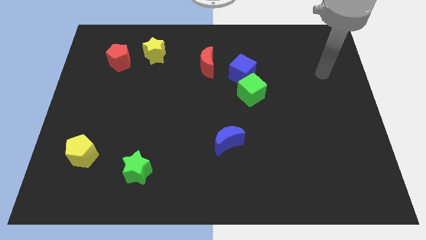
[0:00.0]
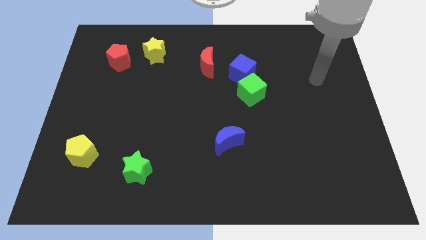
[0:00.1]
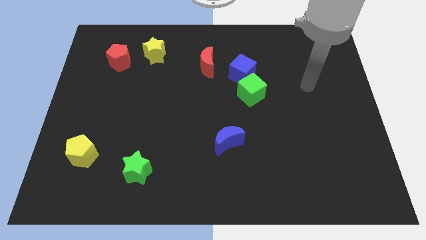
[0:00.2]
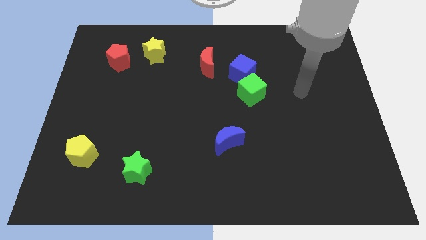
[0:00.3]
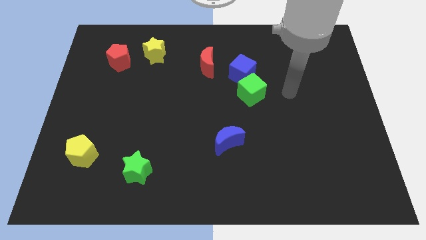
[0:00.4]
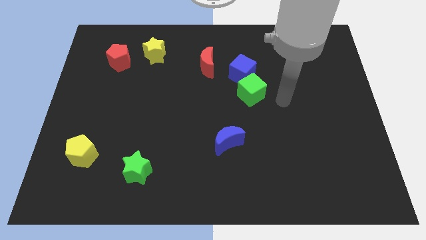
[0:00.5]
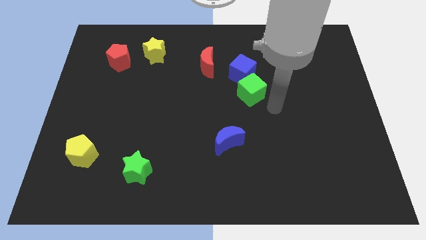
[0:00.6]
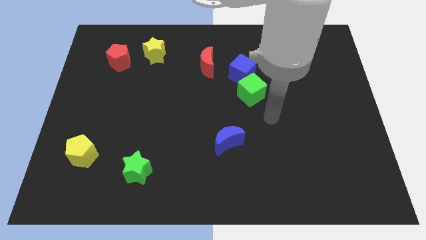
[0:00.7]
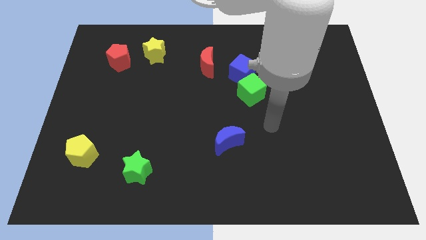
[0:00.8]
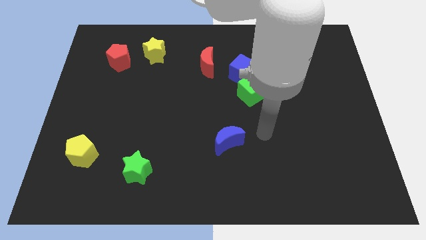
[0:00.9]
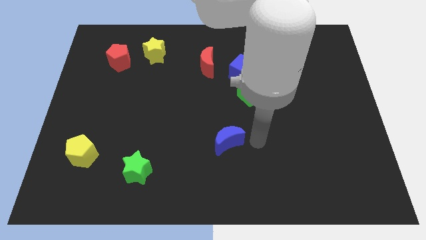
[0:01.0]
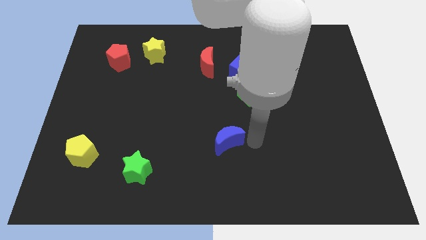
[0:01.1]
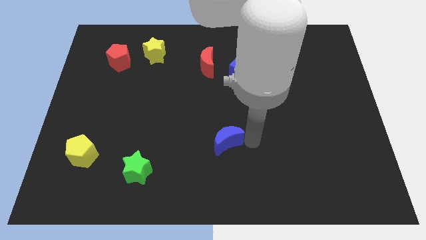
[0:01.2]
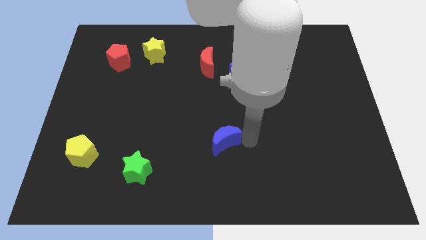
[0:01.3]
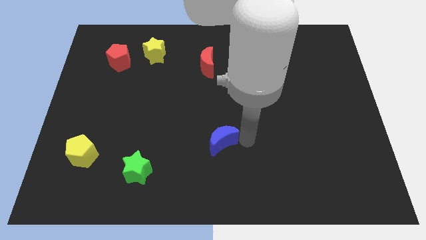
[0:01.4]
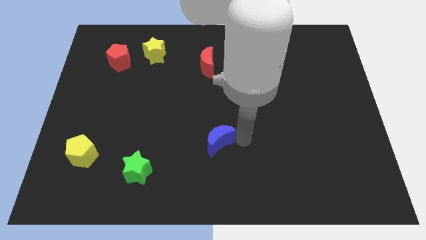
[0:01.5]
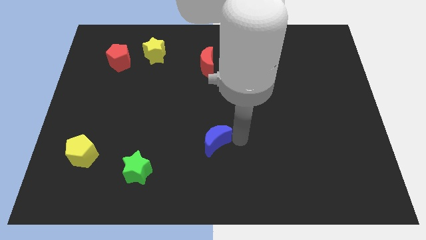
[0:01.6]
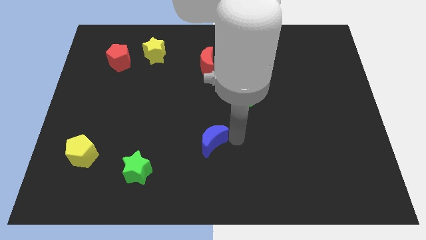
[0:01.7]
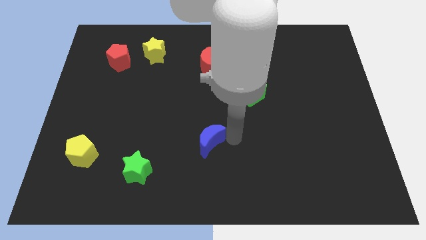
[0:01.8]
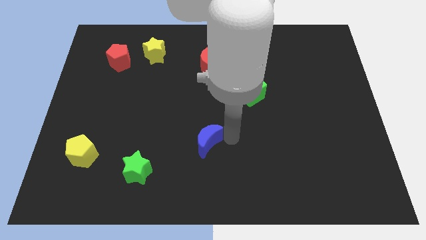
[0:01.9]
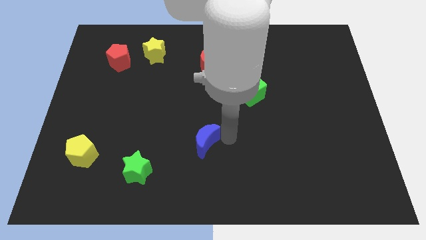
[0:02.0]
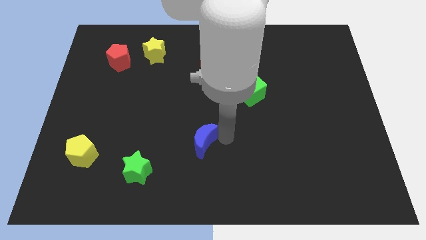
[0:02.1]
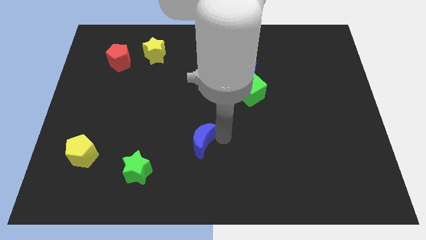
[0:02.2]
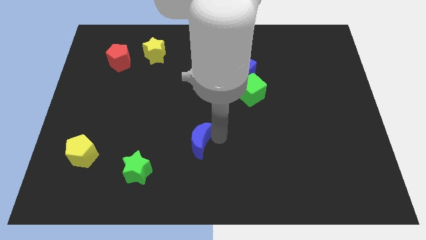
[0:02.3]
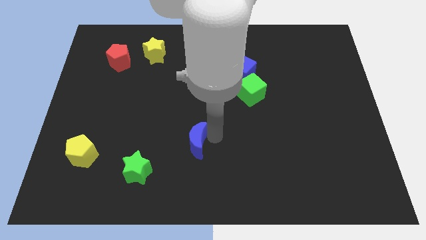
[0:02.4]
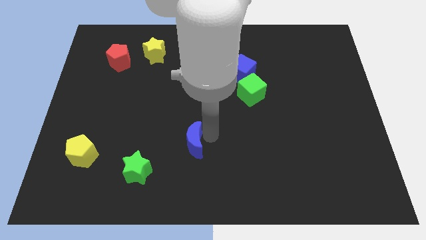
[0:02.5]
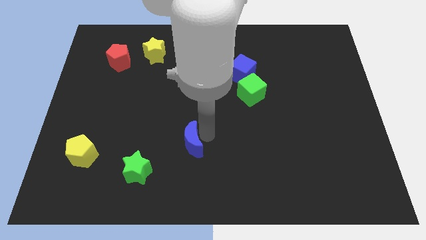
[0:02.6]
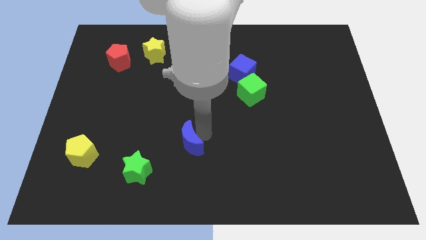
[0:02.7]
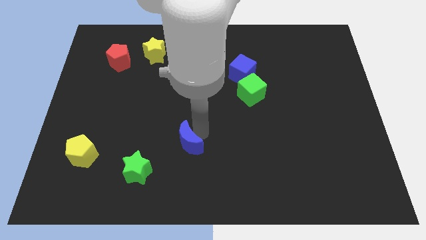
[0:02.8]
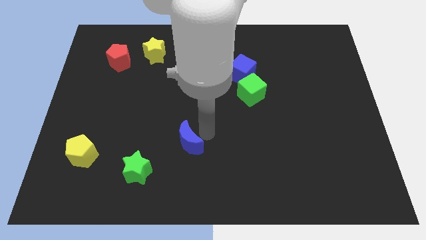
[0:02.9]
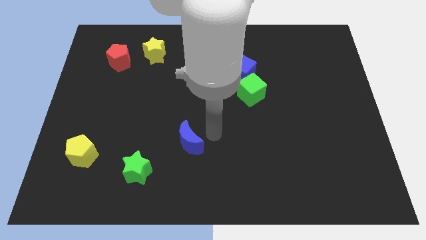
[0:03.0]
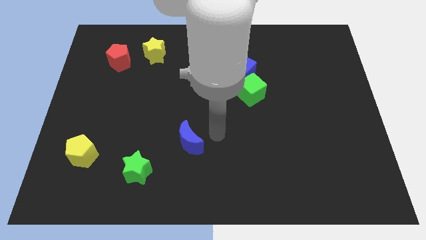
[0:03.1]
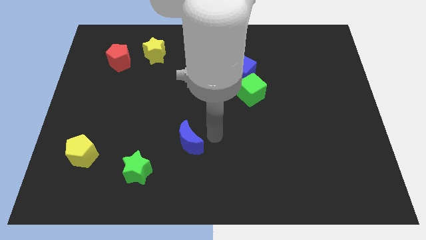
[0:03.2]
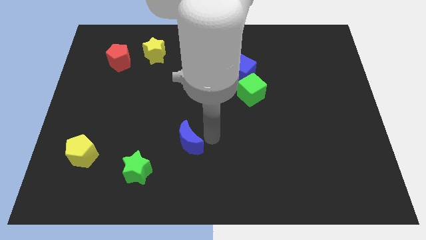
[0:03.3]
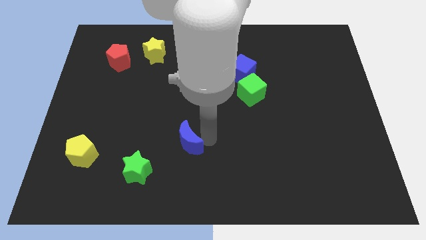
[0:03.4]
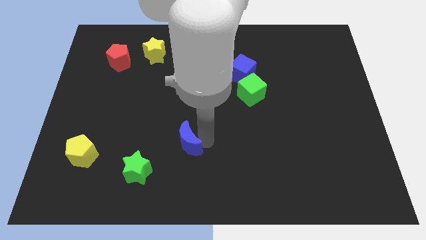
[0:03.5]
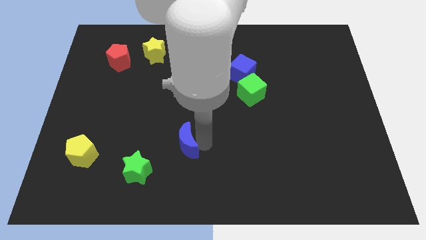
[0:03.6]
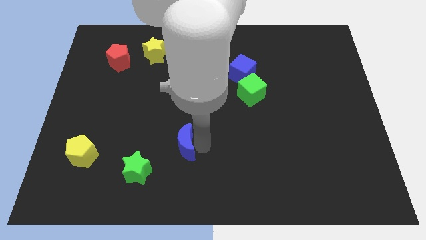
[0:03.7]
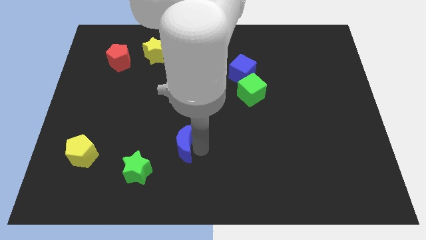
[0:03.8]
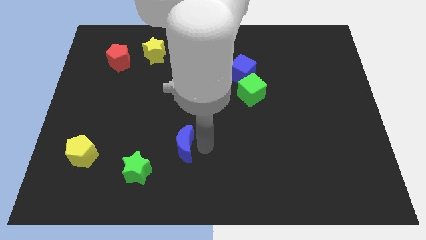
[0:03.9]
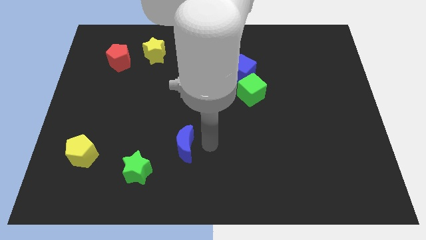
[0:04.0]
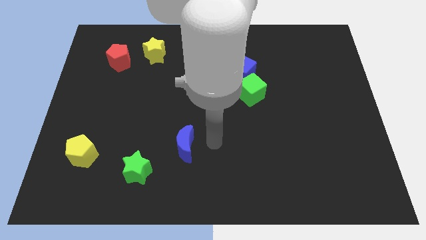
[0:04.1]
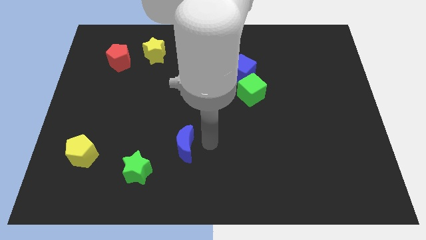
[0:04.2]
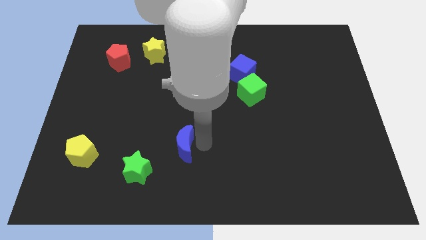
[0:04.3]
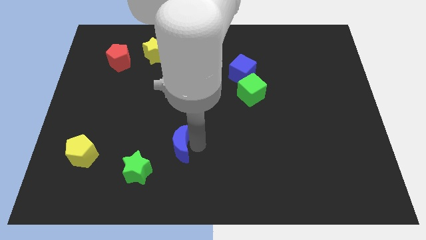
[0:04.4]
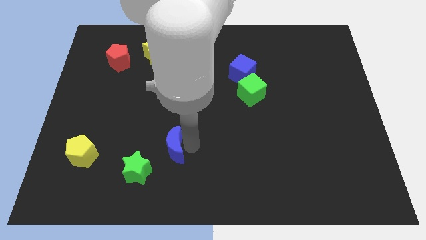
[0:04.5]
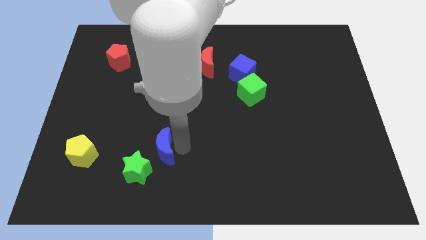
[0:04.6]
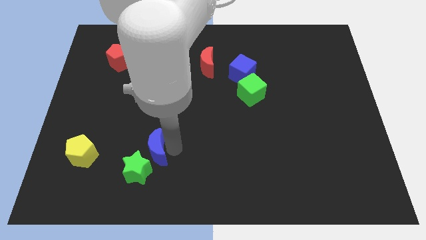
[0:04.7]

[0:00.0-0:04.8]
push the blue moon right of the yellow pentagon

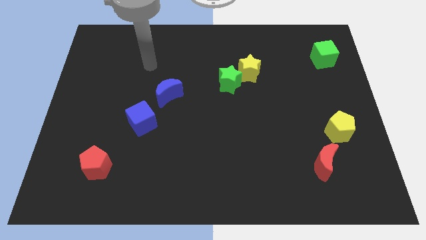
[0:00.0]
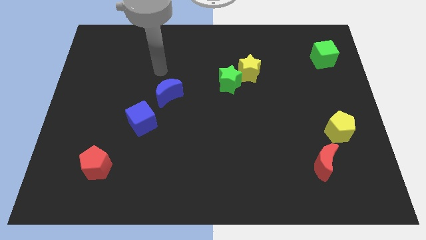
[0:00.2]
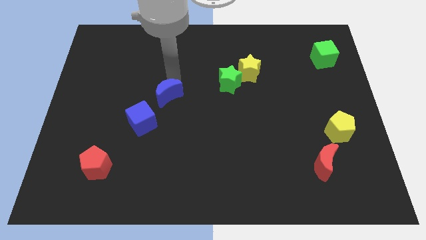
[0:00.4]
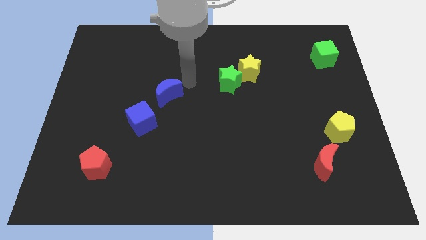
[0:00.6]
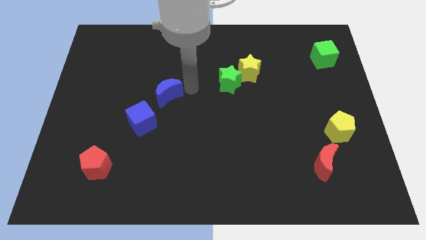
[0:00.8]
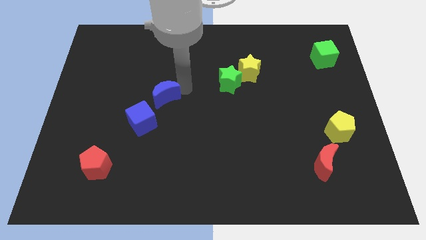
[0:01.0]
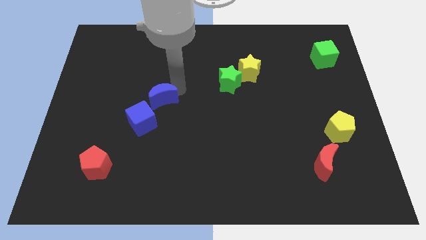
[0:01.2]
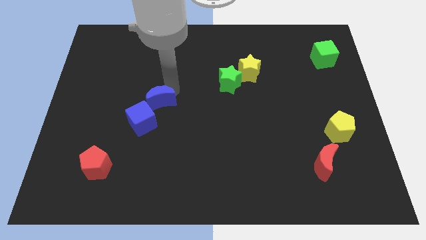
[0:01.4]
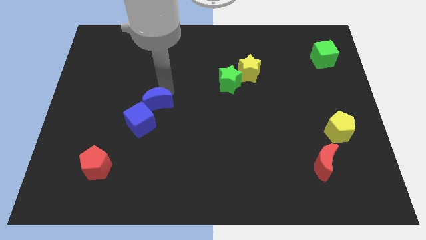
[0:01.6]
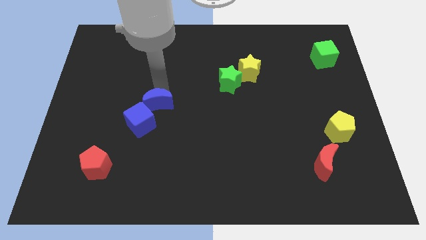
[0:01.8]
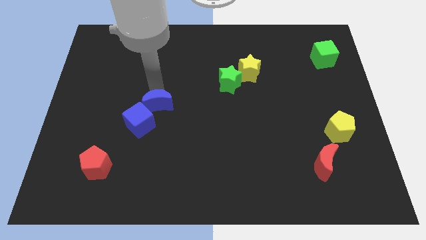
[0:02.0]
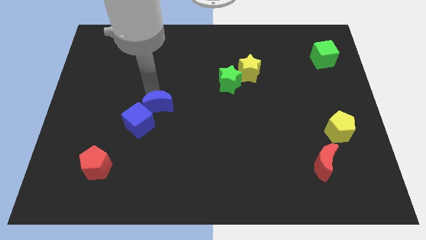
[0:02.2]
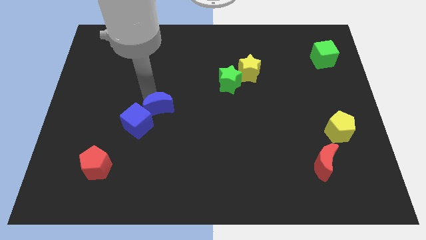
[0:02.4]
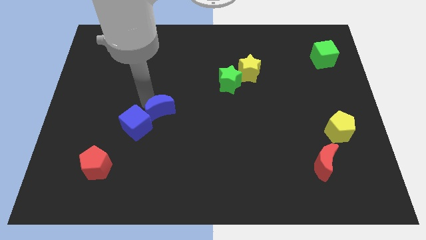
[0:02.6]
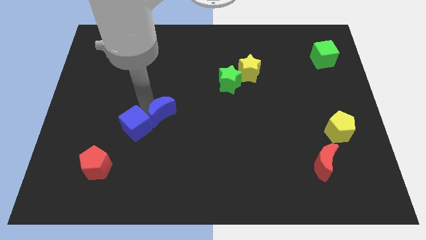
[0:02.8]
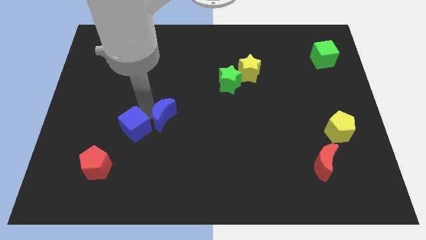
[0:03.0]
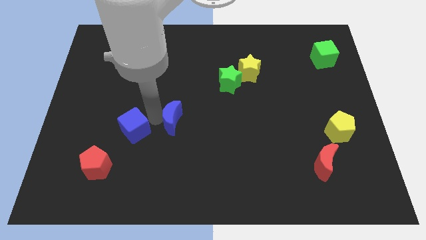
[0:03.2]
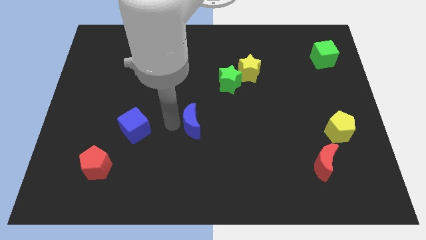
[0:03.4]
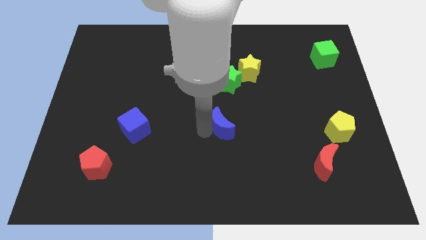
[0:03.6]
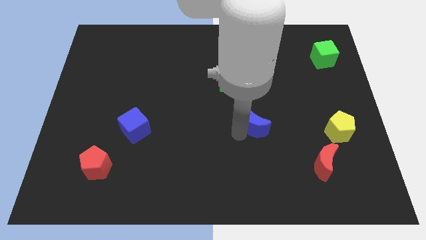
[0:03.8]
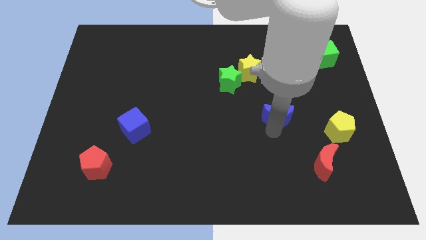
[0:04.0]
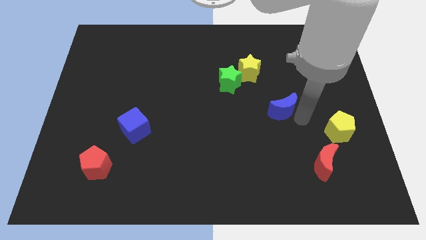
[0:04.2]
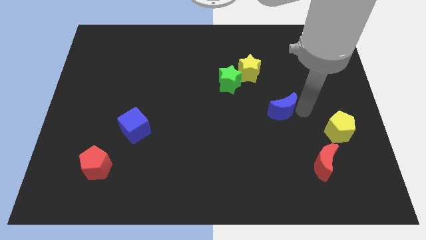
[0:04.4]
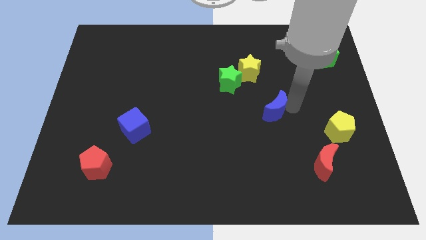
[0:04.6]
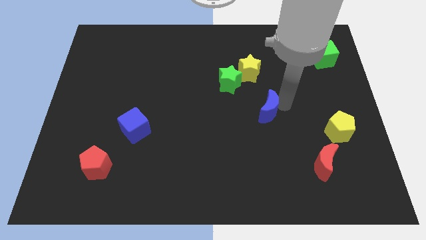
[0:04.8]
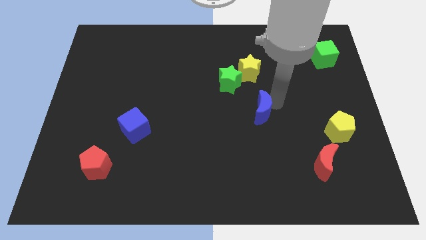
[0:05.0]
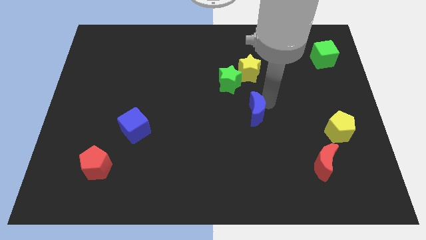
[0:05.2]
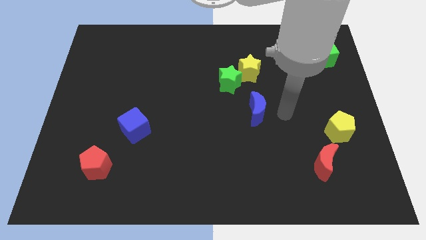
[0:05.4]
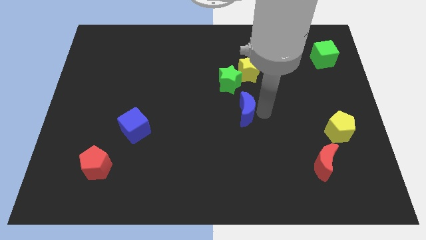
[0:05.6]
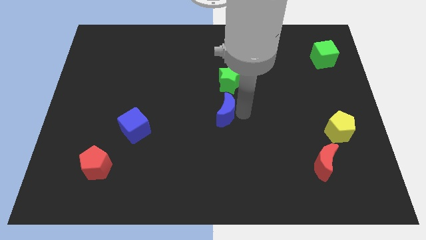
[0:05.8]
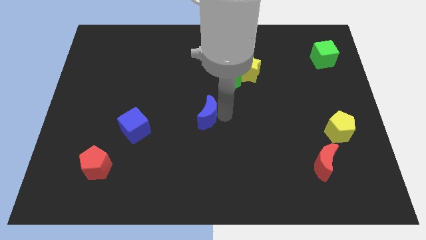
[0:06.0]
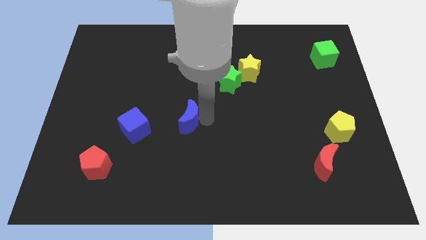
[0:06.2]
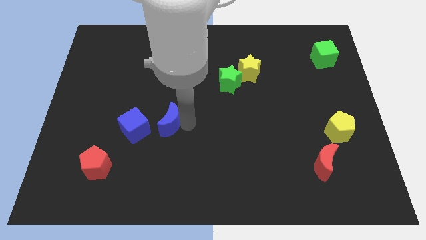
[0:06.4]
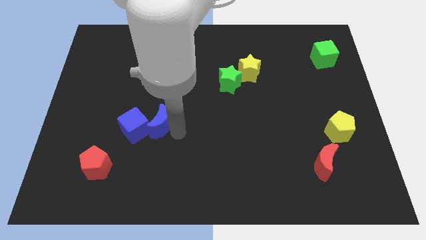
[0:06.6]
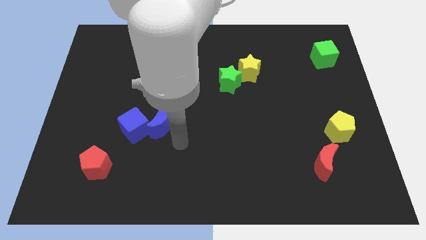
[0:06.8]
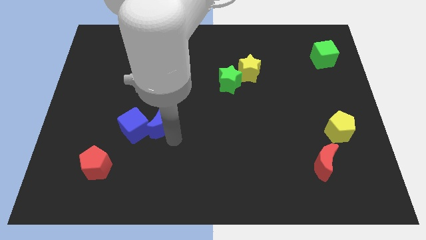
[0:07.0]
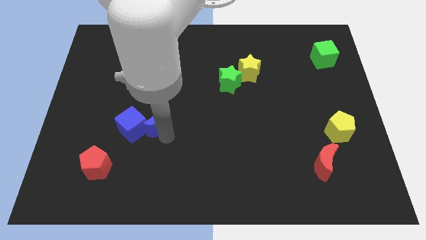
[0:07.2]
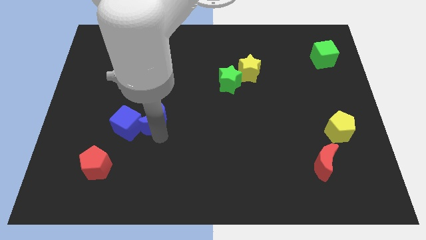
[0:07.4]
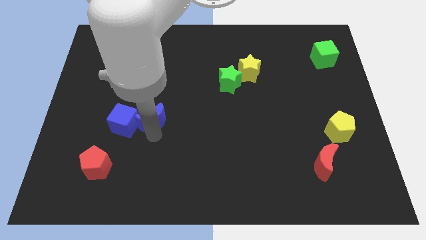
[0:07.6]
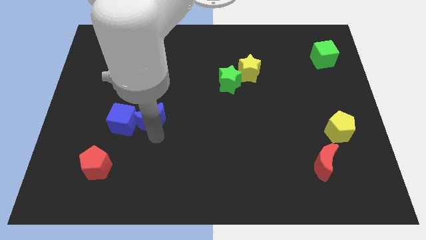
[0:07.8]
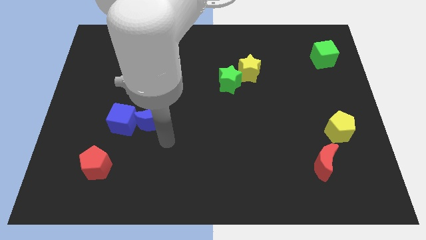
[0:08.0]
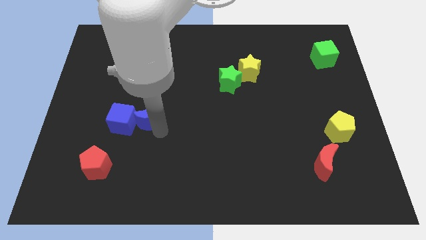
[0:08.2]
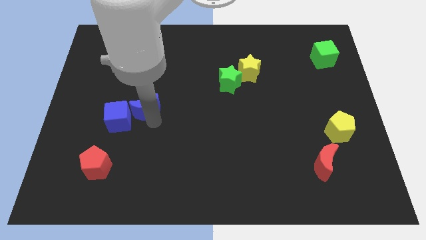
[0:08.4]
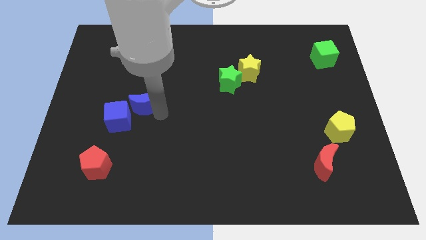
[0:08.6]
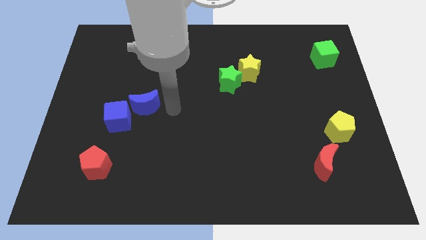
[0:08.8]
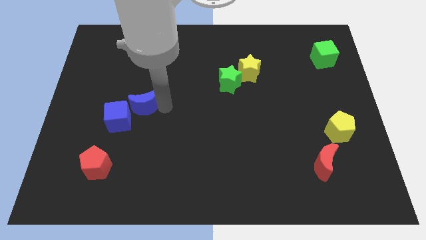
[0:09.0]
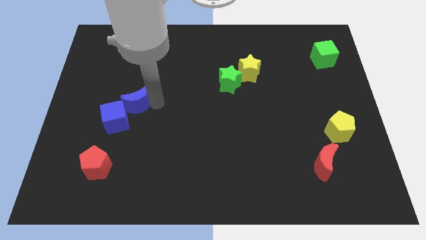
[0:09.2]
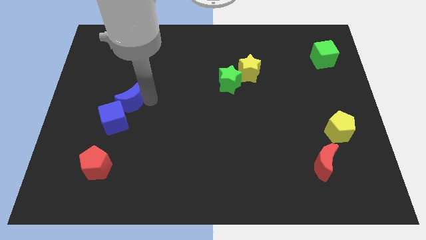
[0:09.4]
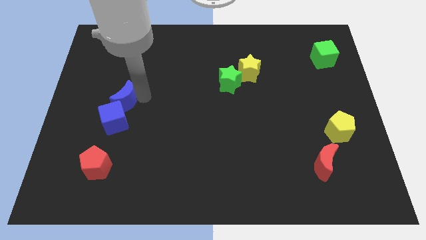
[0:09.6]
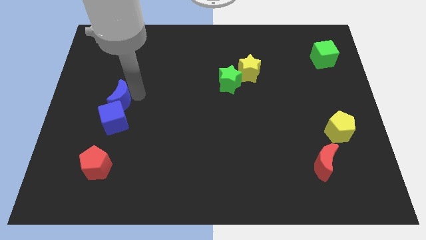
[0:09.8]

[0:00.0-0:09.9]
slide the blue moon to the top left side of the blue cube
